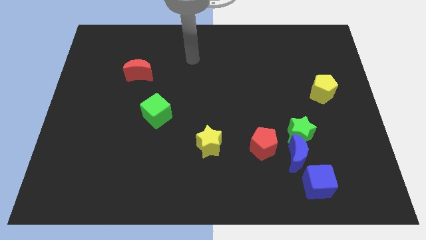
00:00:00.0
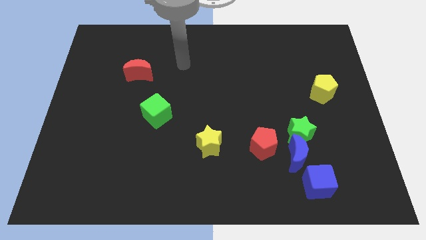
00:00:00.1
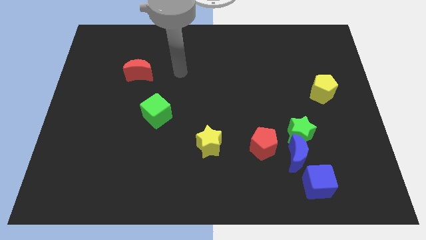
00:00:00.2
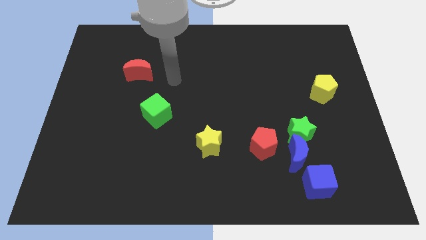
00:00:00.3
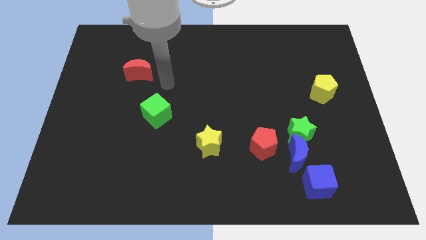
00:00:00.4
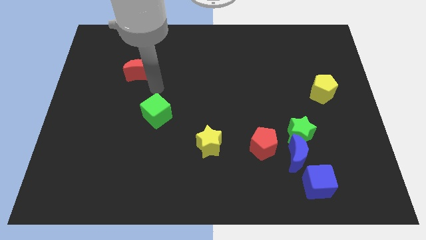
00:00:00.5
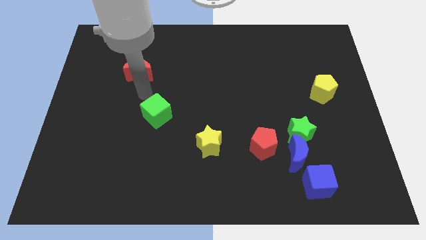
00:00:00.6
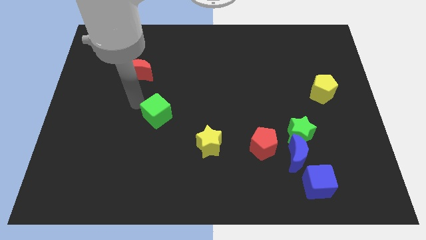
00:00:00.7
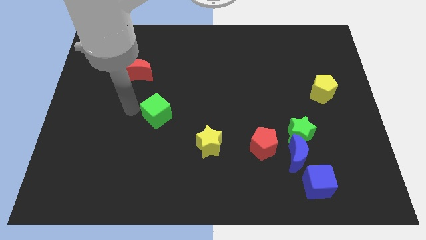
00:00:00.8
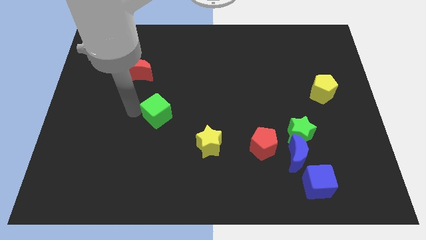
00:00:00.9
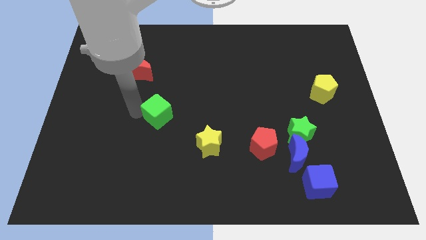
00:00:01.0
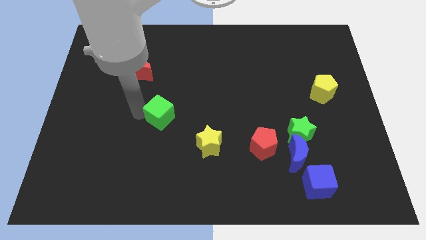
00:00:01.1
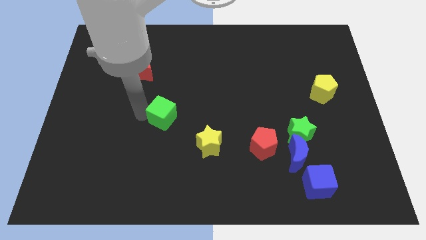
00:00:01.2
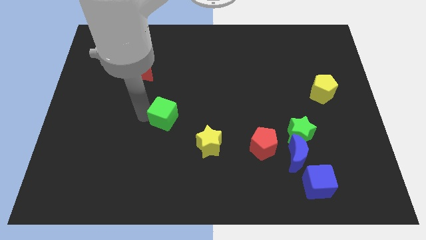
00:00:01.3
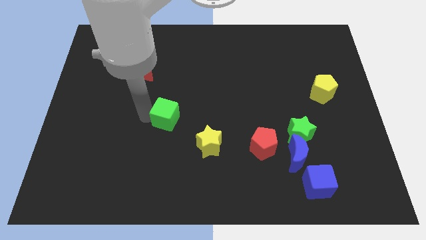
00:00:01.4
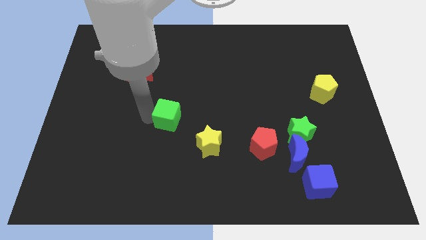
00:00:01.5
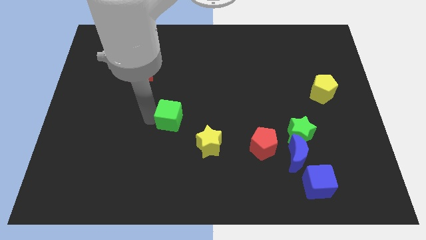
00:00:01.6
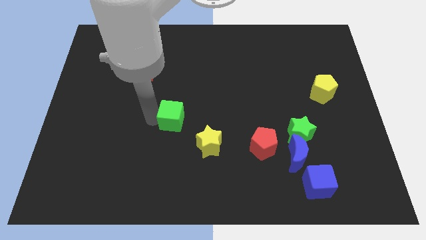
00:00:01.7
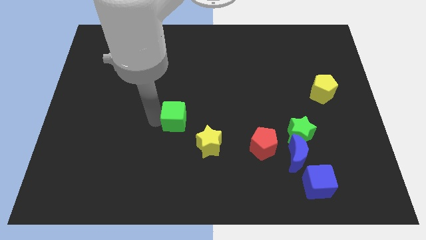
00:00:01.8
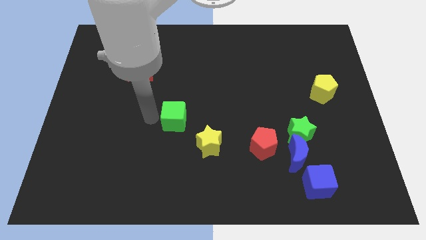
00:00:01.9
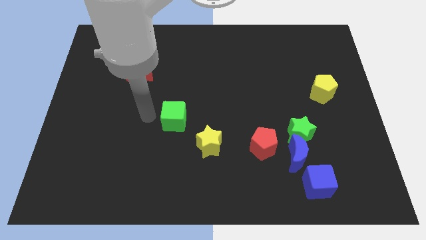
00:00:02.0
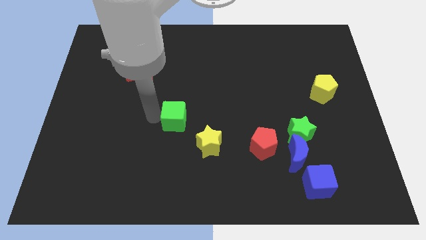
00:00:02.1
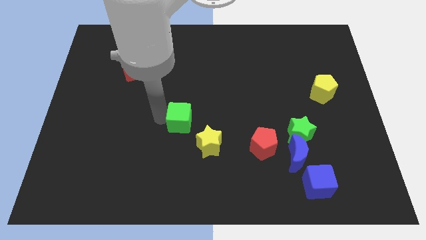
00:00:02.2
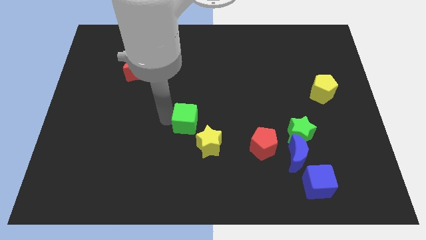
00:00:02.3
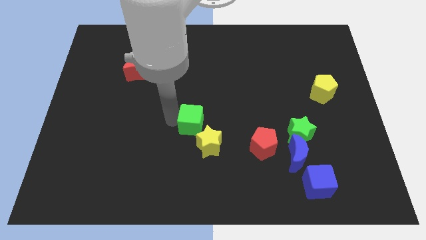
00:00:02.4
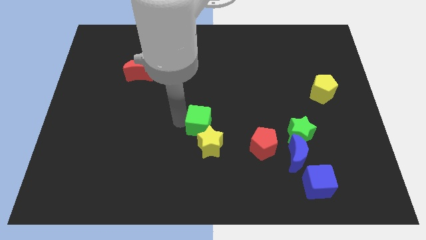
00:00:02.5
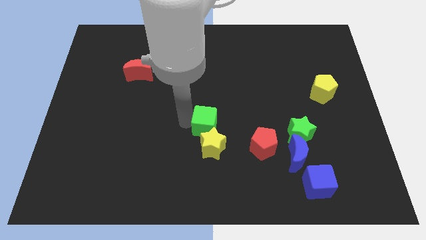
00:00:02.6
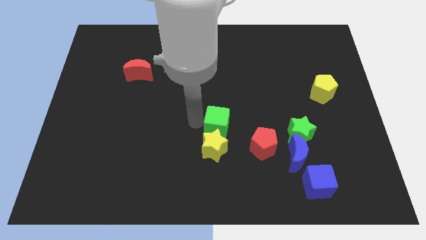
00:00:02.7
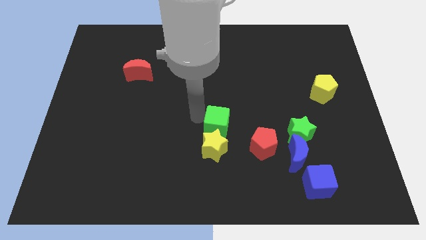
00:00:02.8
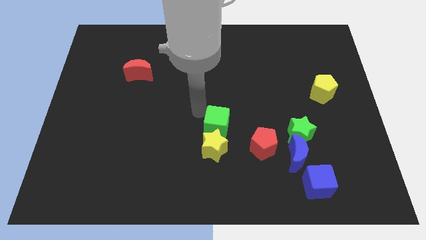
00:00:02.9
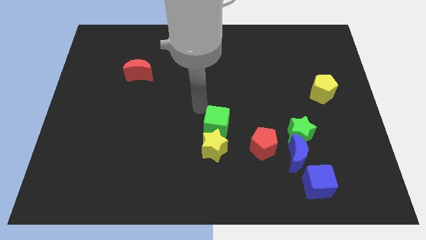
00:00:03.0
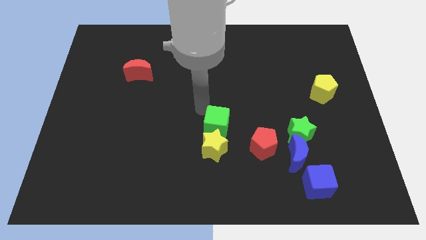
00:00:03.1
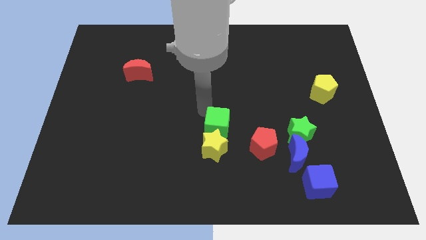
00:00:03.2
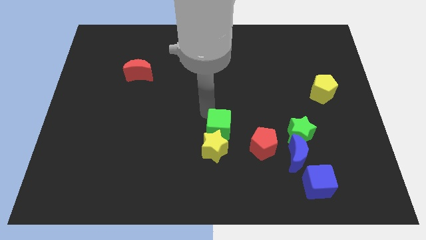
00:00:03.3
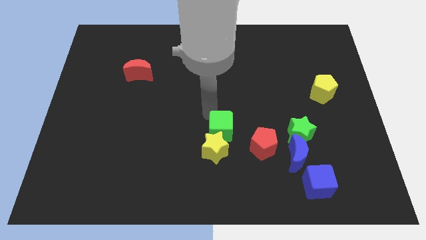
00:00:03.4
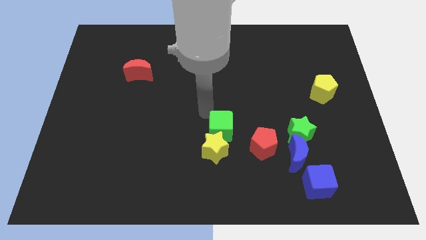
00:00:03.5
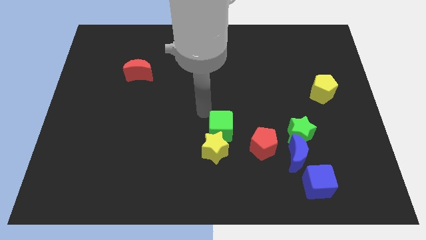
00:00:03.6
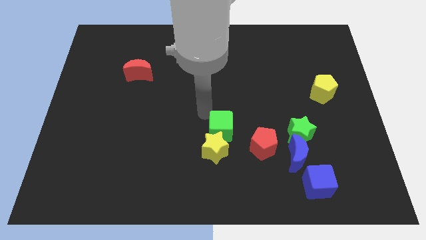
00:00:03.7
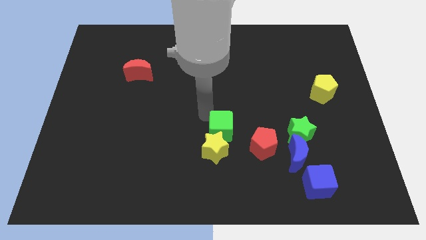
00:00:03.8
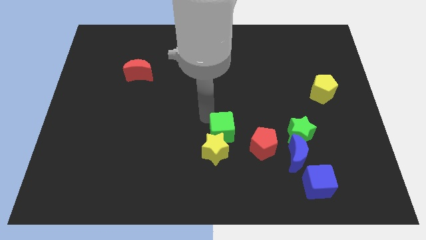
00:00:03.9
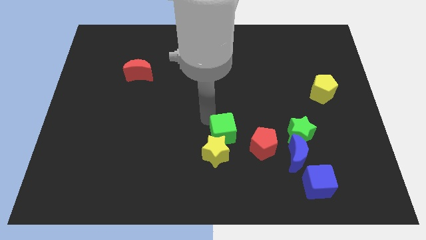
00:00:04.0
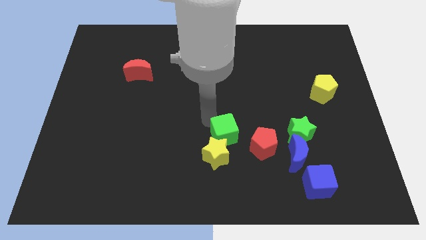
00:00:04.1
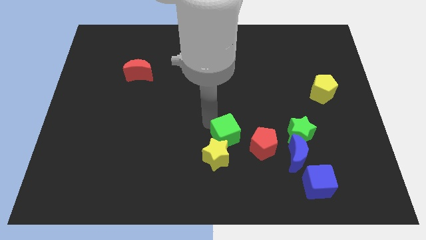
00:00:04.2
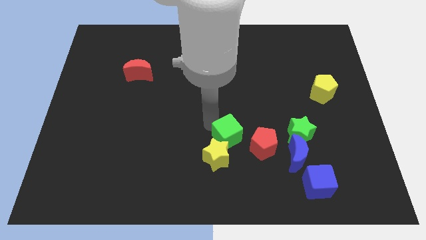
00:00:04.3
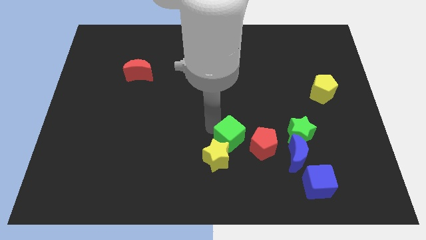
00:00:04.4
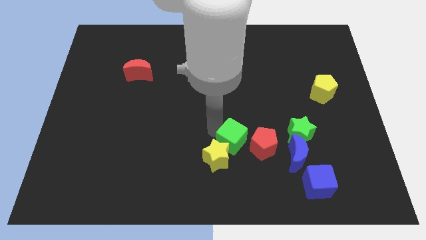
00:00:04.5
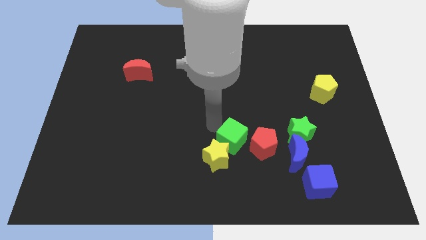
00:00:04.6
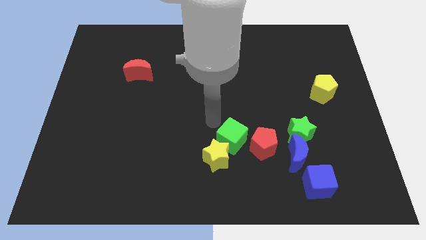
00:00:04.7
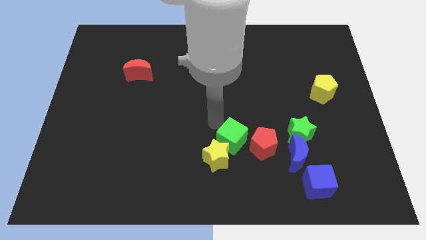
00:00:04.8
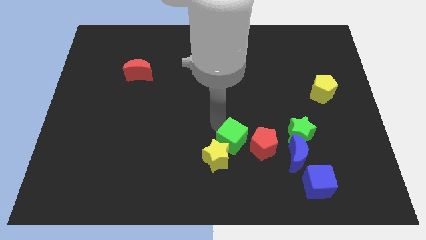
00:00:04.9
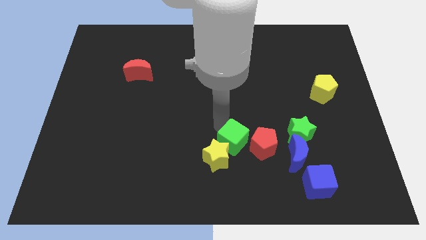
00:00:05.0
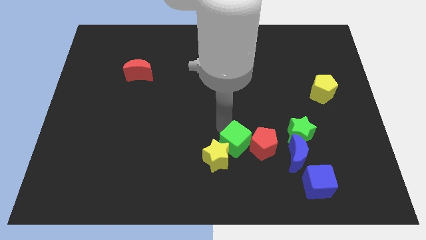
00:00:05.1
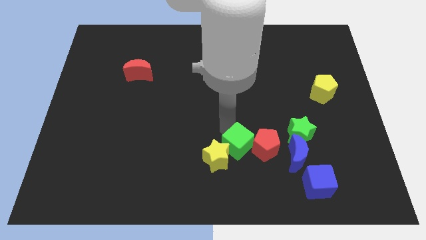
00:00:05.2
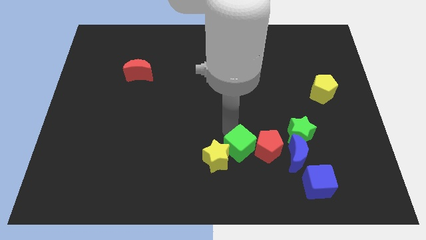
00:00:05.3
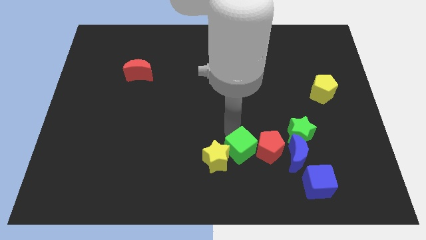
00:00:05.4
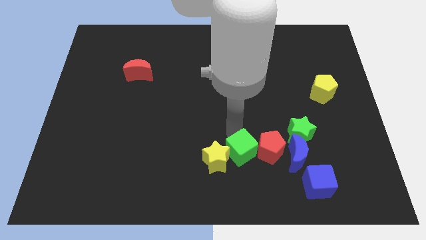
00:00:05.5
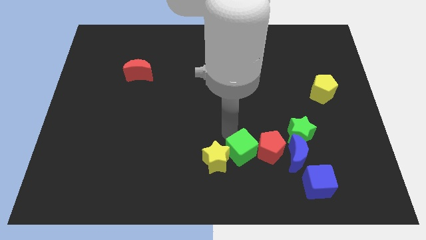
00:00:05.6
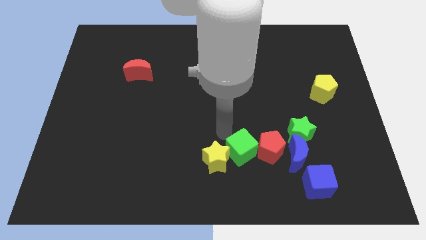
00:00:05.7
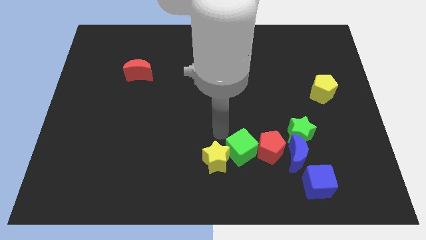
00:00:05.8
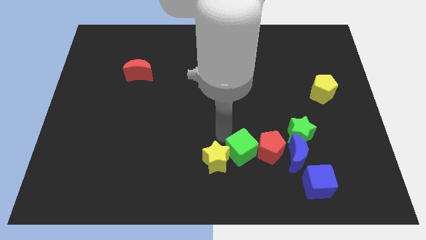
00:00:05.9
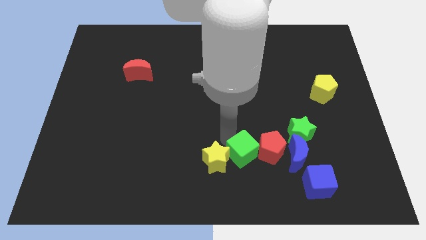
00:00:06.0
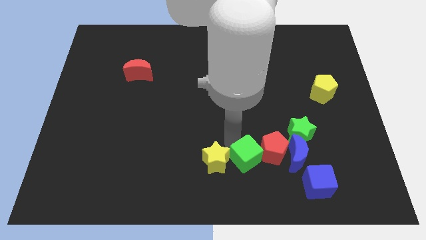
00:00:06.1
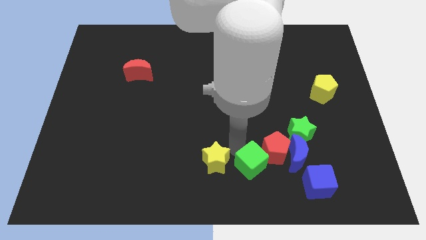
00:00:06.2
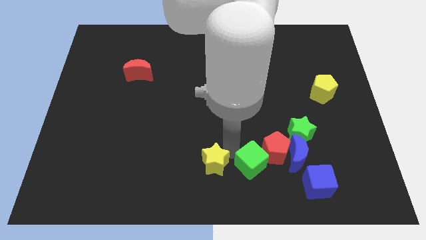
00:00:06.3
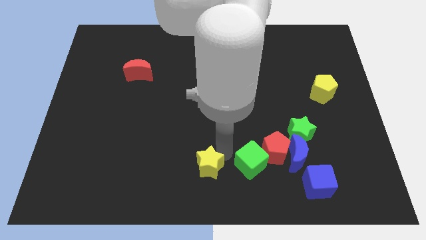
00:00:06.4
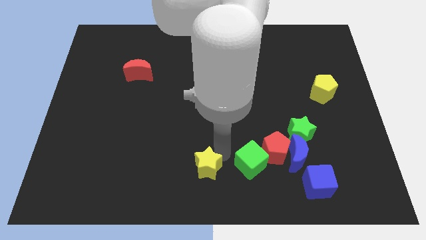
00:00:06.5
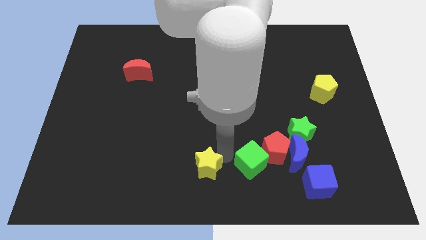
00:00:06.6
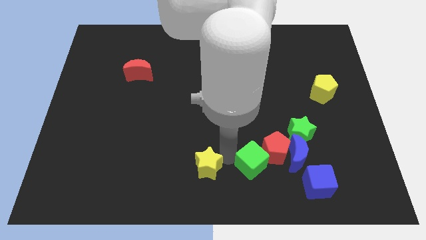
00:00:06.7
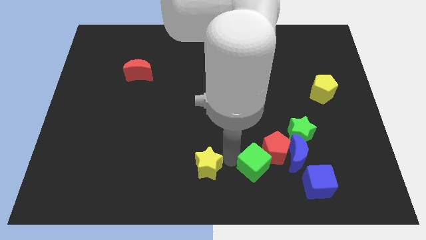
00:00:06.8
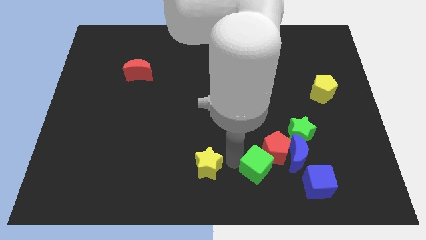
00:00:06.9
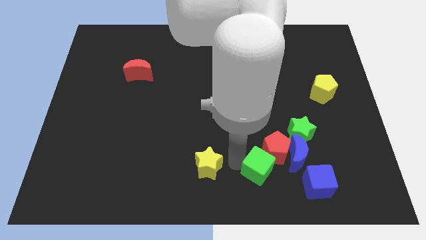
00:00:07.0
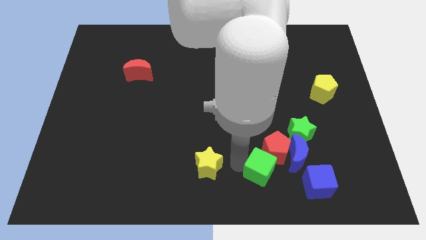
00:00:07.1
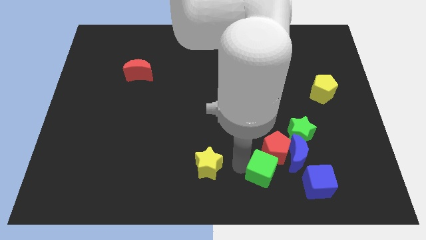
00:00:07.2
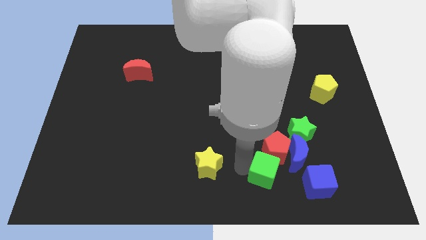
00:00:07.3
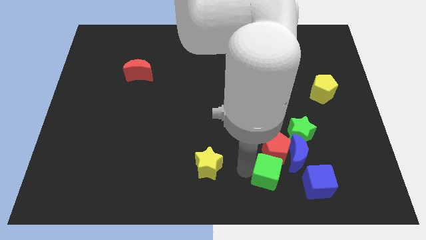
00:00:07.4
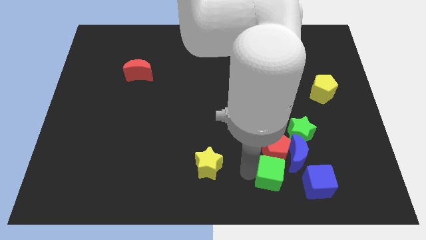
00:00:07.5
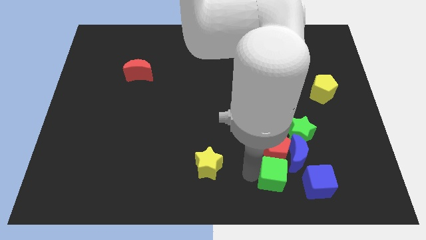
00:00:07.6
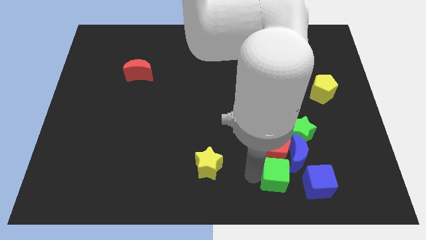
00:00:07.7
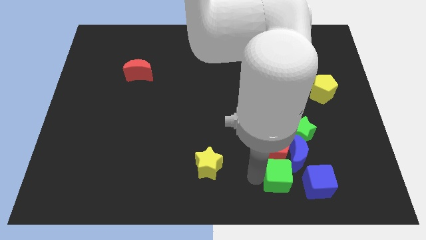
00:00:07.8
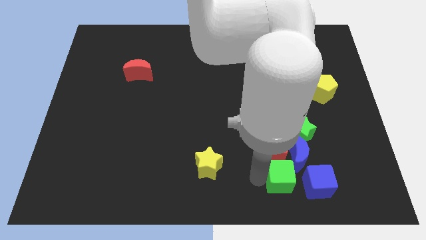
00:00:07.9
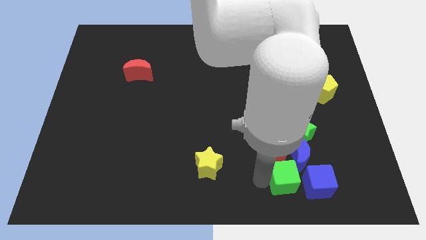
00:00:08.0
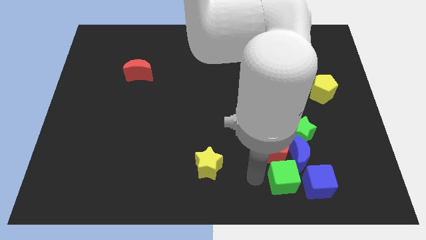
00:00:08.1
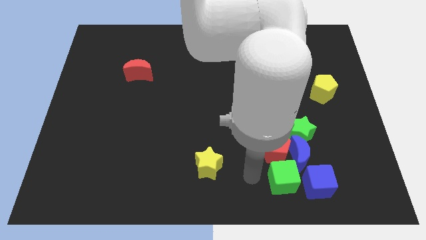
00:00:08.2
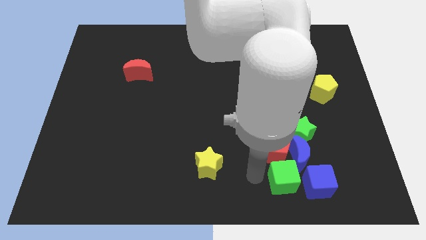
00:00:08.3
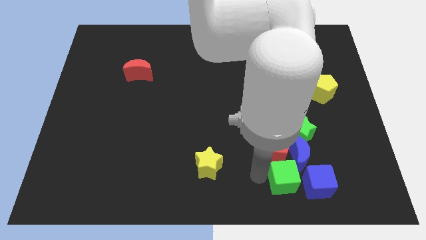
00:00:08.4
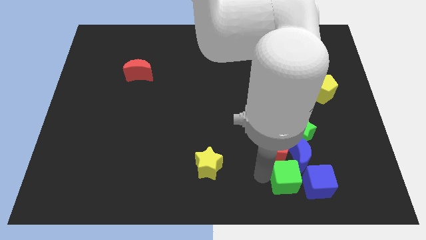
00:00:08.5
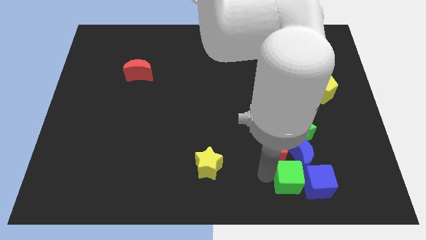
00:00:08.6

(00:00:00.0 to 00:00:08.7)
move the green cube close to the blue cube
